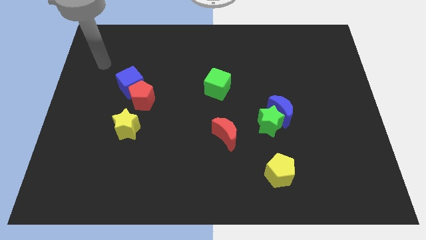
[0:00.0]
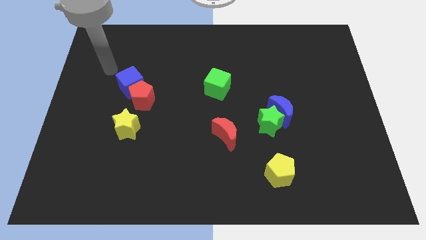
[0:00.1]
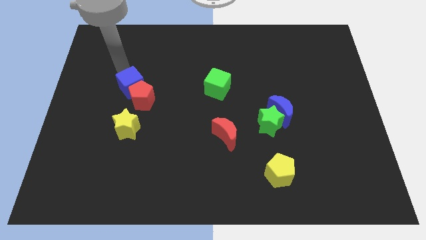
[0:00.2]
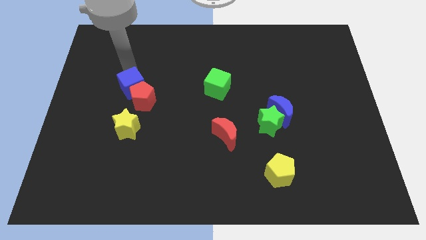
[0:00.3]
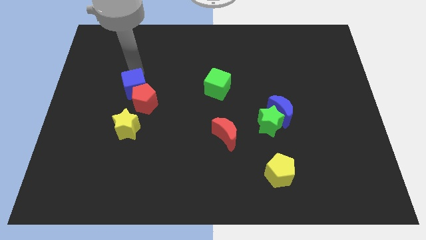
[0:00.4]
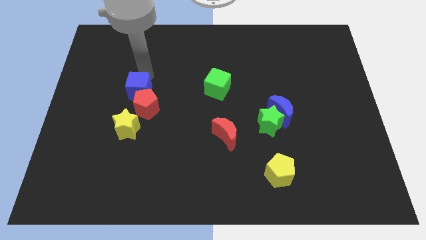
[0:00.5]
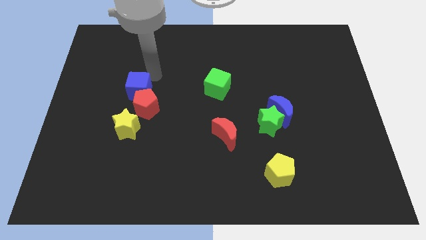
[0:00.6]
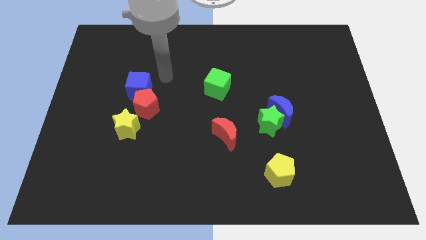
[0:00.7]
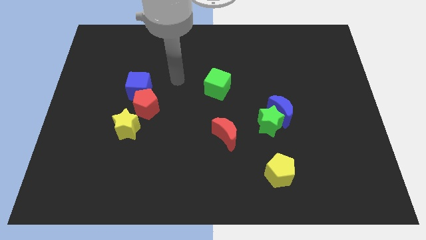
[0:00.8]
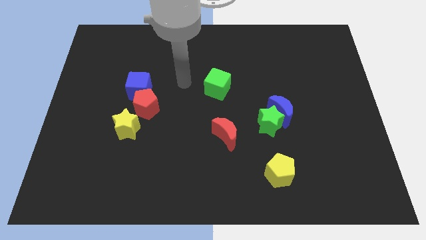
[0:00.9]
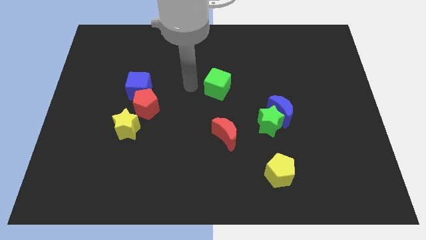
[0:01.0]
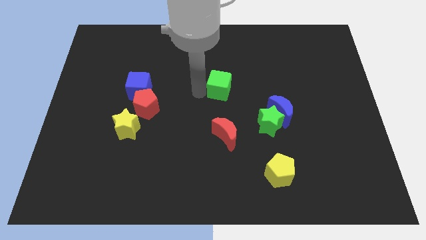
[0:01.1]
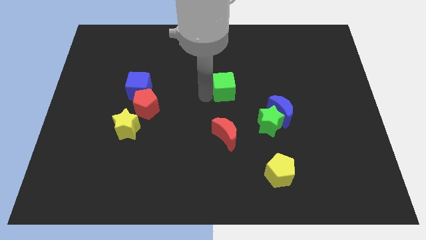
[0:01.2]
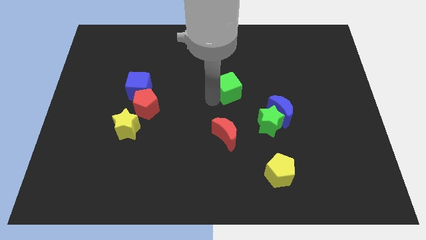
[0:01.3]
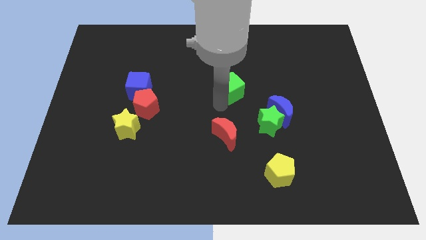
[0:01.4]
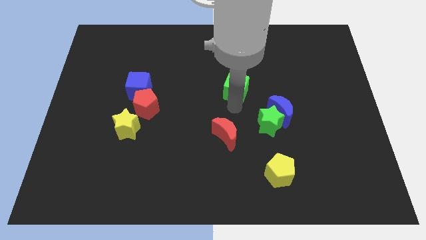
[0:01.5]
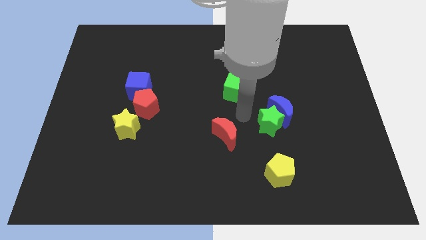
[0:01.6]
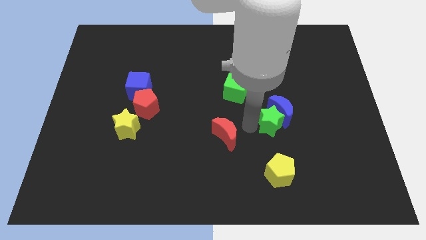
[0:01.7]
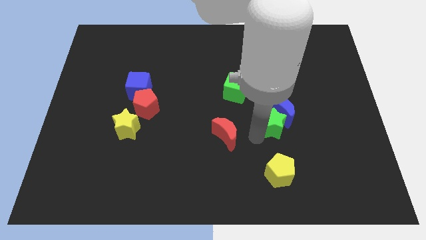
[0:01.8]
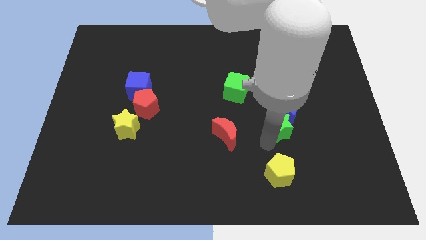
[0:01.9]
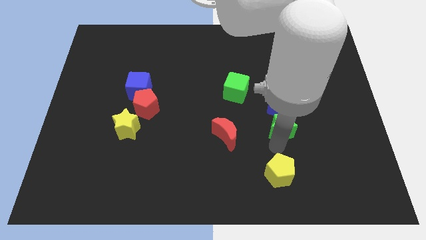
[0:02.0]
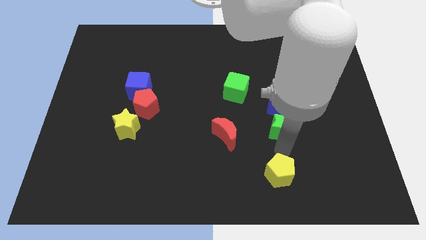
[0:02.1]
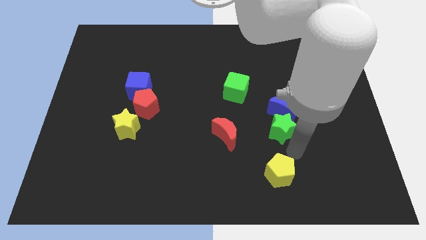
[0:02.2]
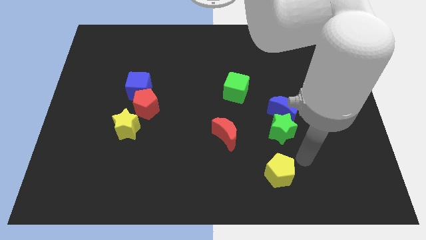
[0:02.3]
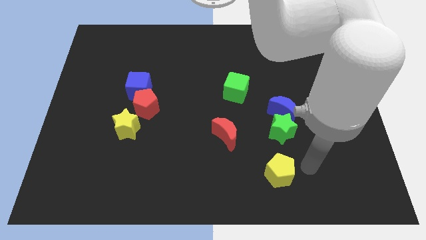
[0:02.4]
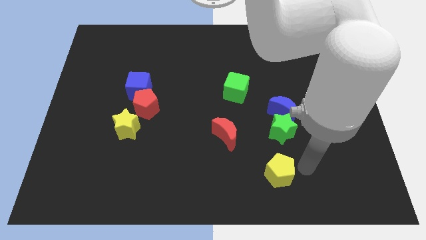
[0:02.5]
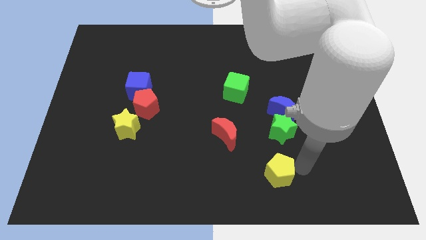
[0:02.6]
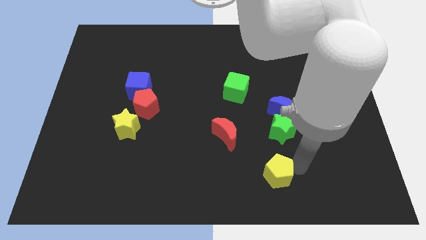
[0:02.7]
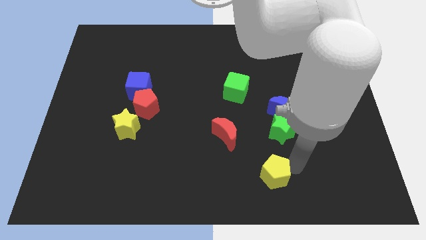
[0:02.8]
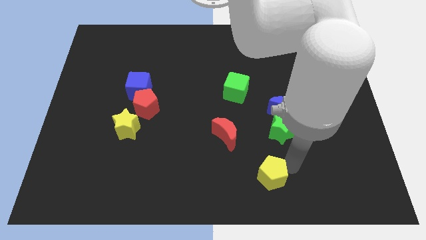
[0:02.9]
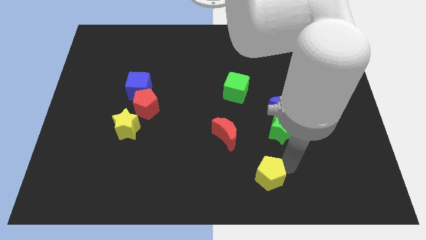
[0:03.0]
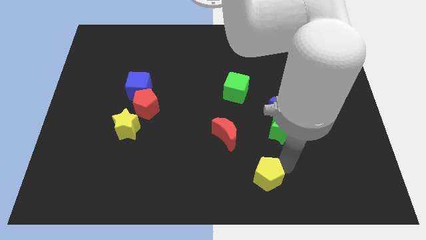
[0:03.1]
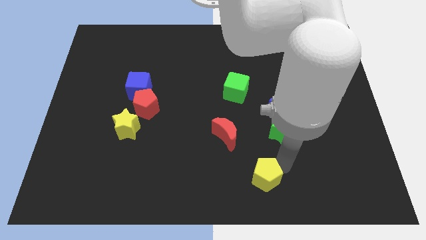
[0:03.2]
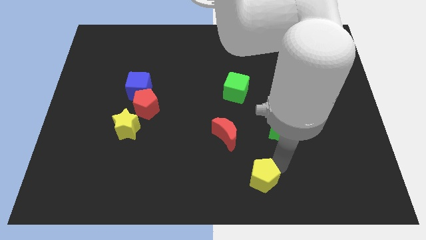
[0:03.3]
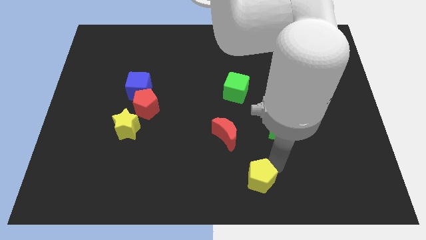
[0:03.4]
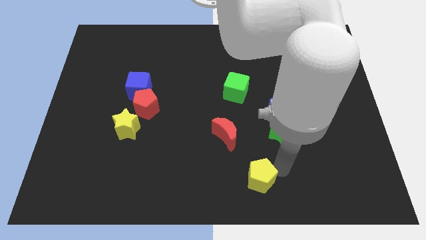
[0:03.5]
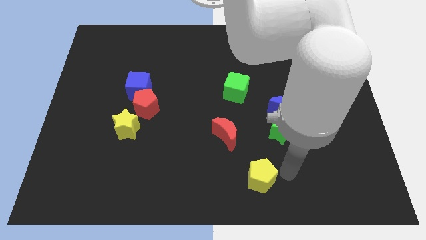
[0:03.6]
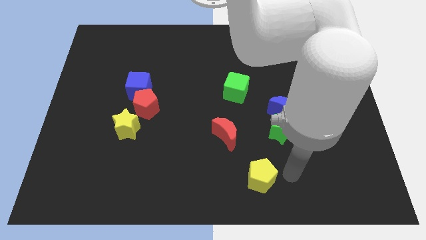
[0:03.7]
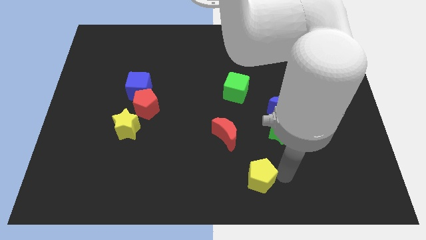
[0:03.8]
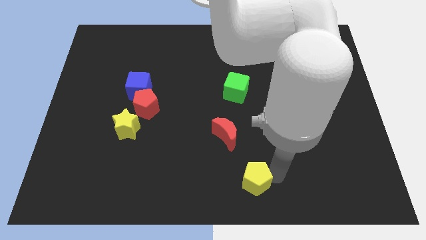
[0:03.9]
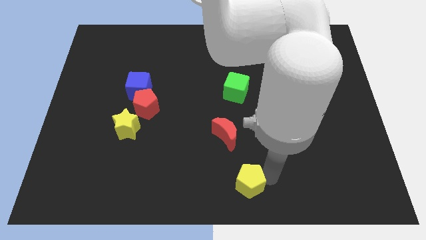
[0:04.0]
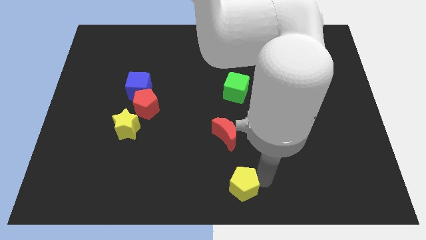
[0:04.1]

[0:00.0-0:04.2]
slightly push the yellow pentagon left

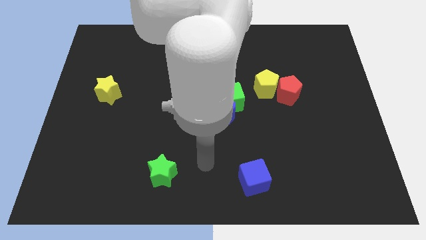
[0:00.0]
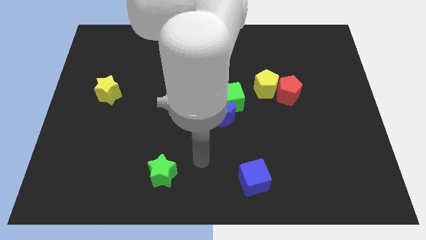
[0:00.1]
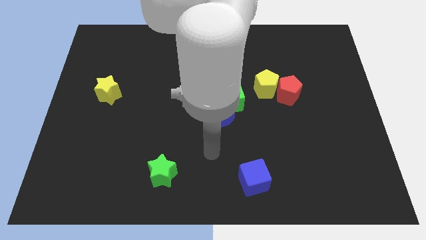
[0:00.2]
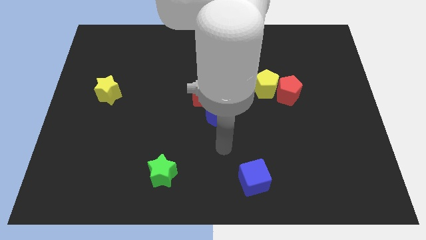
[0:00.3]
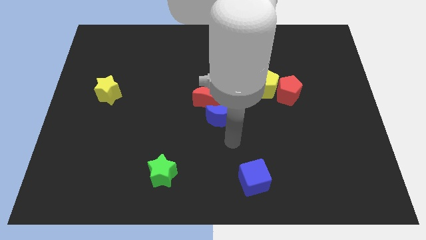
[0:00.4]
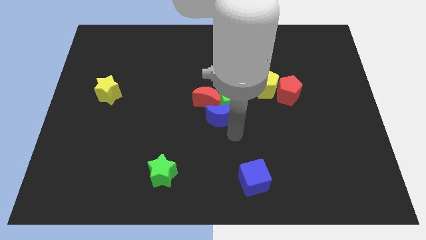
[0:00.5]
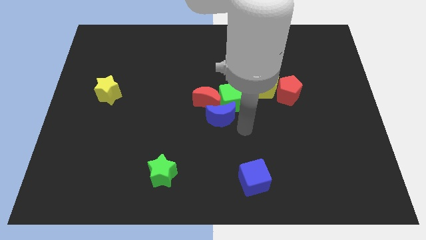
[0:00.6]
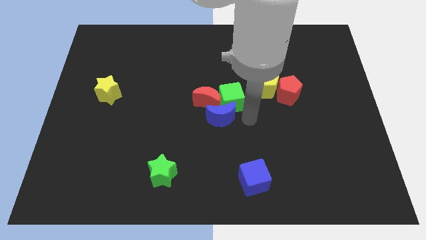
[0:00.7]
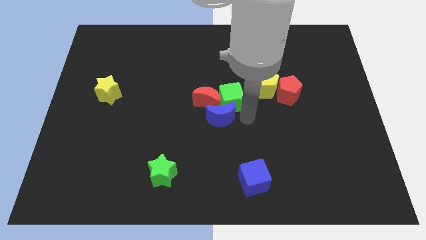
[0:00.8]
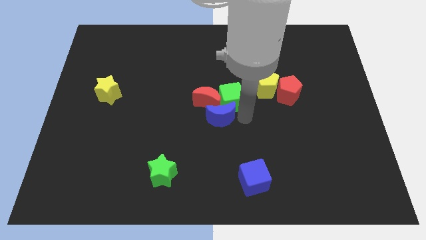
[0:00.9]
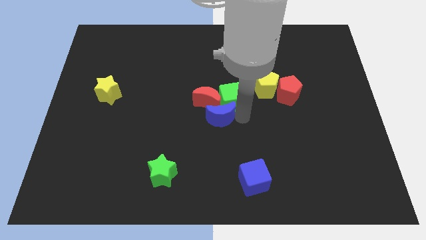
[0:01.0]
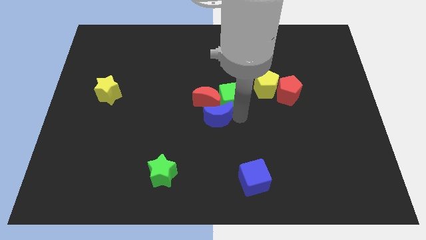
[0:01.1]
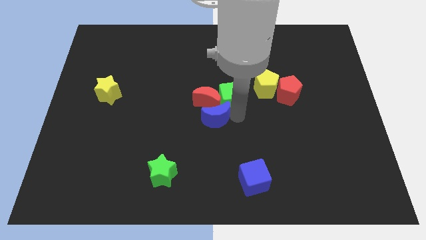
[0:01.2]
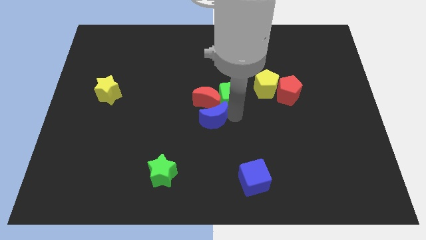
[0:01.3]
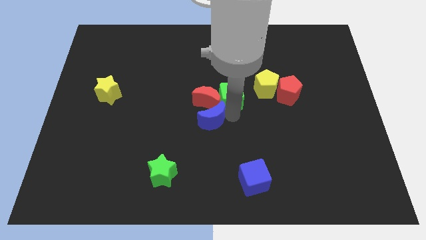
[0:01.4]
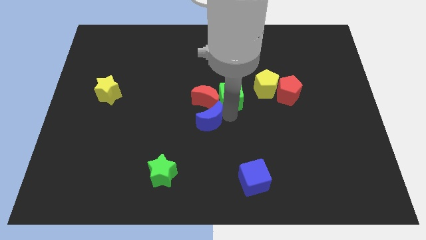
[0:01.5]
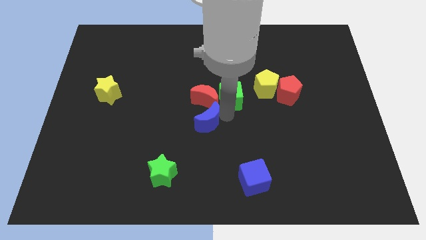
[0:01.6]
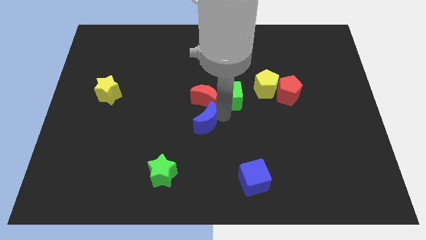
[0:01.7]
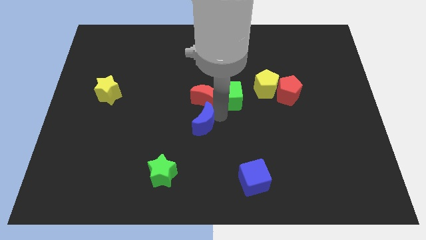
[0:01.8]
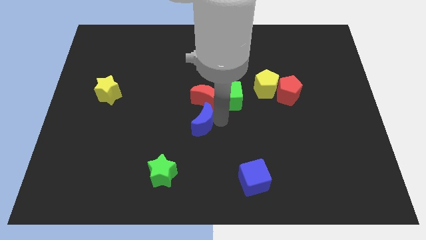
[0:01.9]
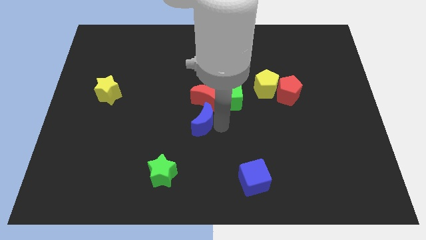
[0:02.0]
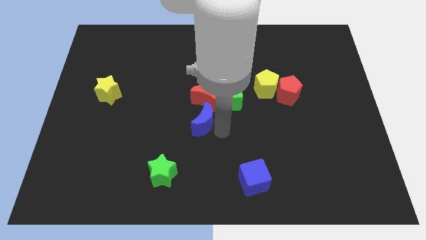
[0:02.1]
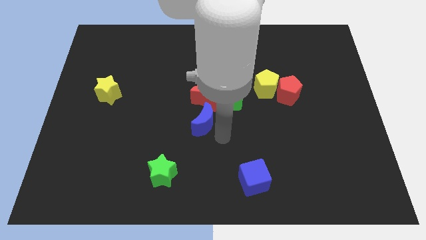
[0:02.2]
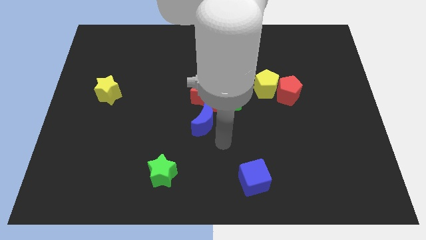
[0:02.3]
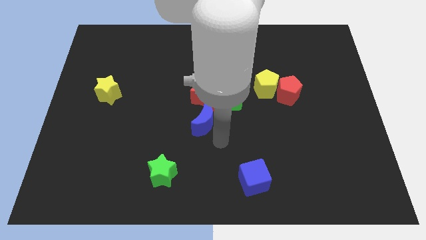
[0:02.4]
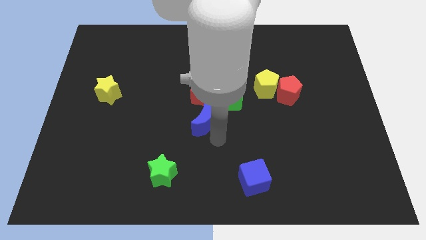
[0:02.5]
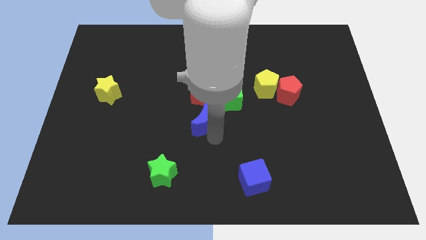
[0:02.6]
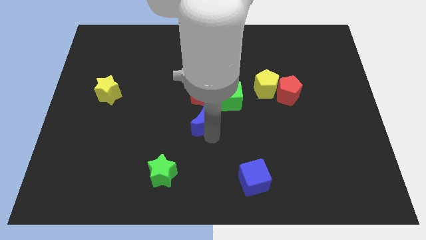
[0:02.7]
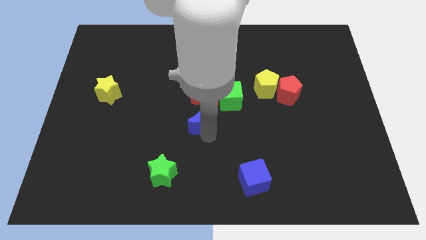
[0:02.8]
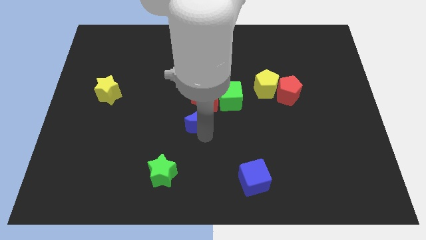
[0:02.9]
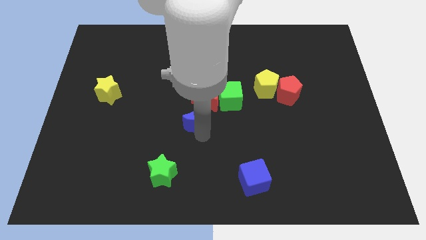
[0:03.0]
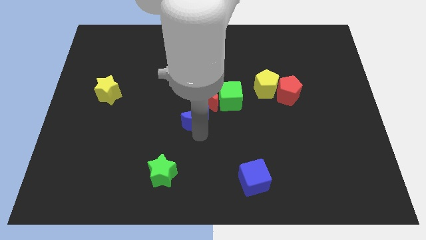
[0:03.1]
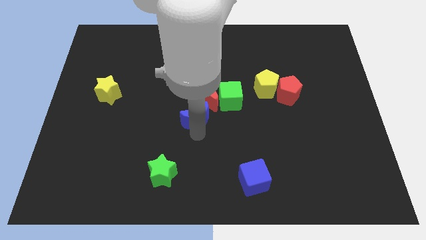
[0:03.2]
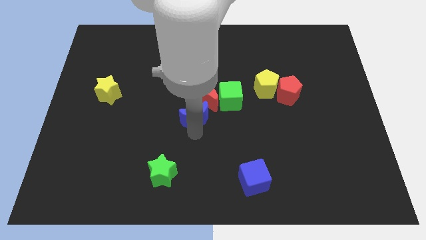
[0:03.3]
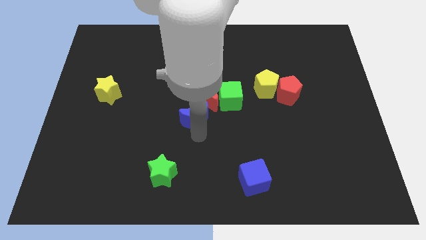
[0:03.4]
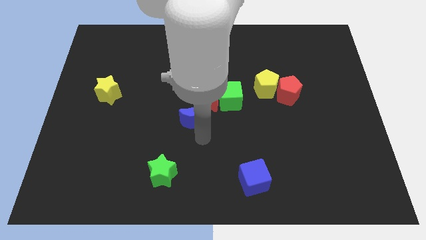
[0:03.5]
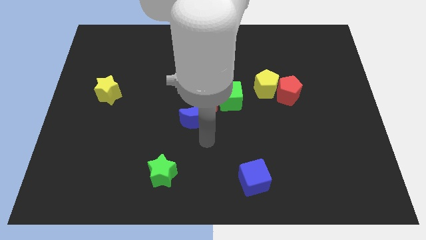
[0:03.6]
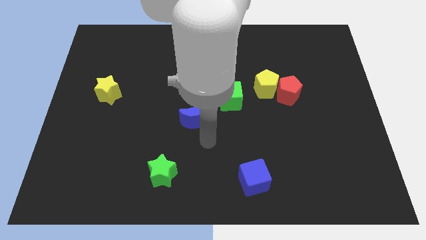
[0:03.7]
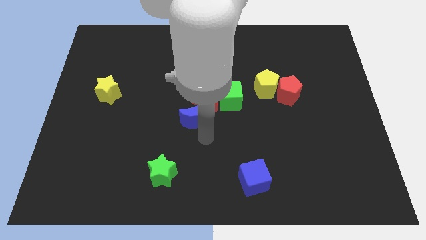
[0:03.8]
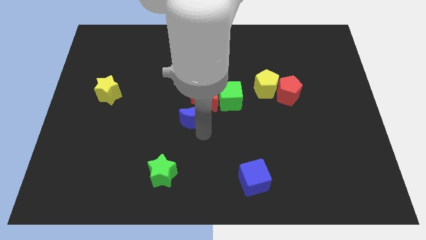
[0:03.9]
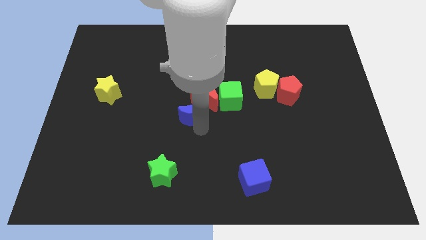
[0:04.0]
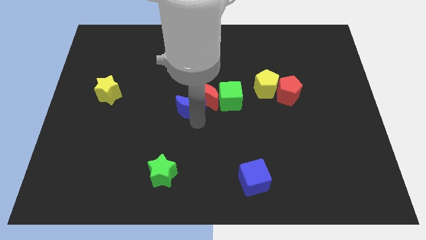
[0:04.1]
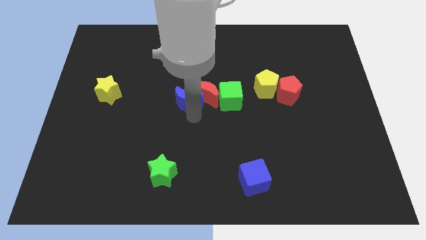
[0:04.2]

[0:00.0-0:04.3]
push the blue moon a little bit upwards and left
